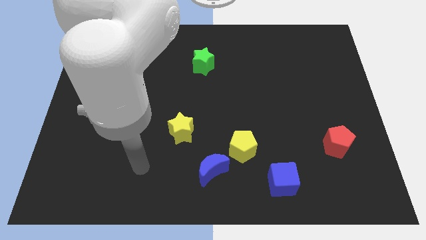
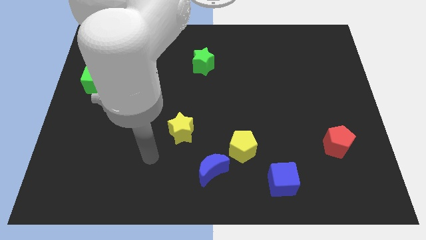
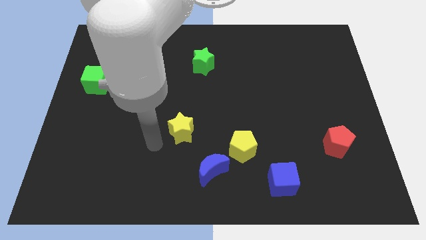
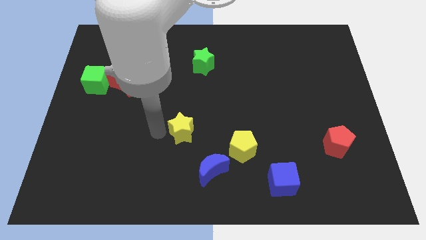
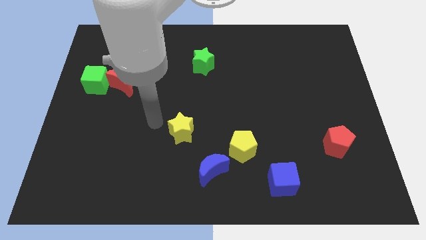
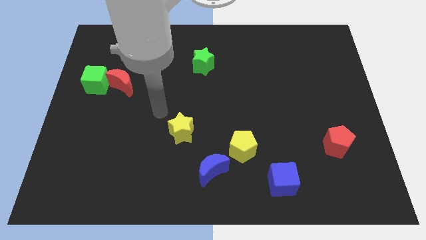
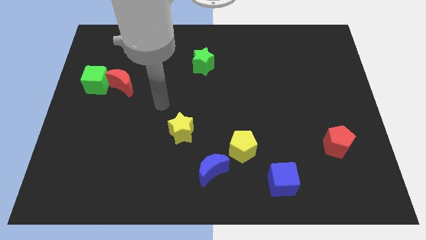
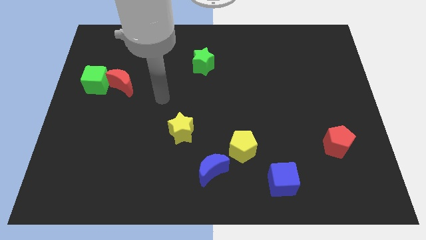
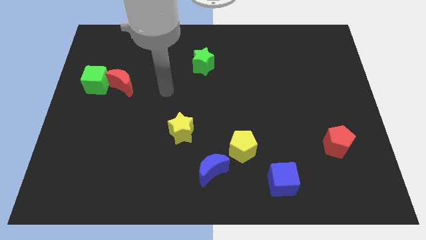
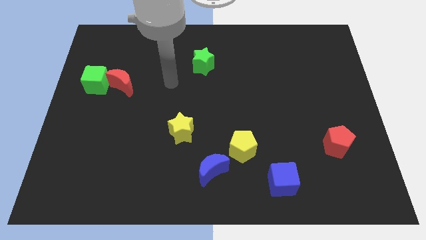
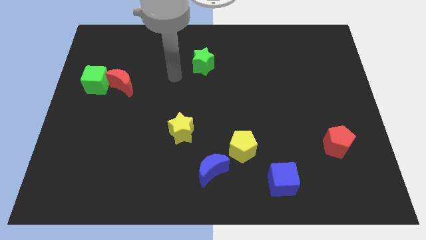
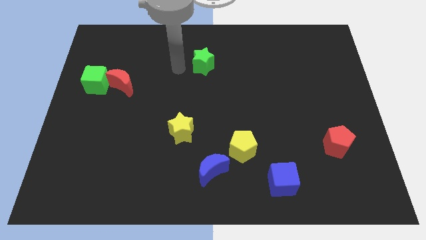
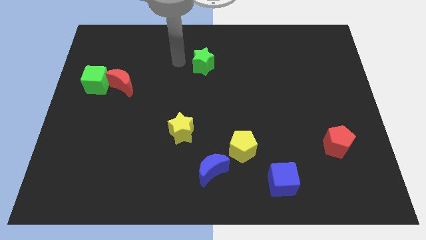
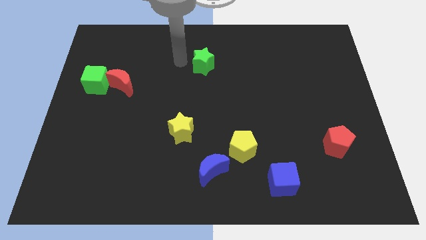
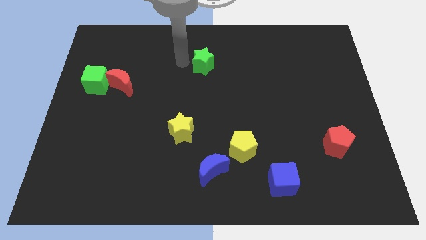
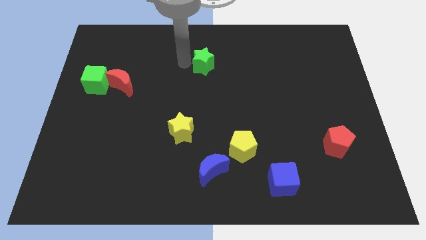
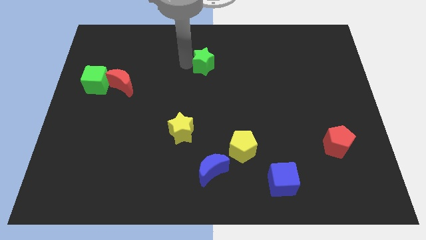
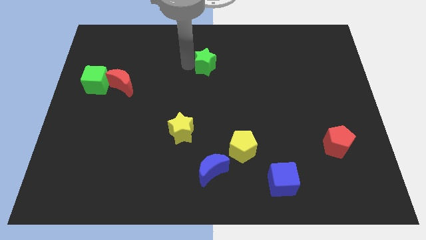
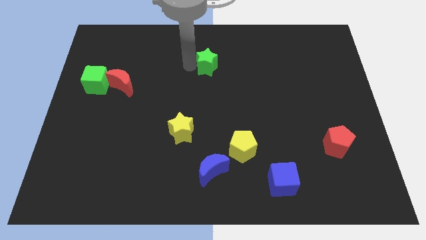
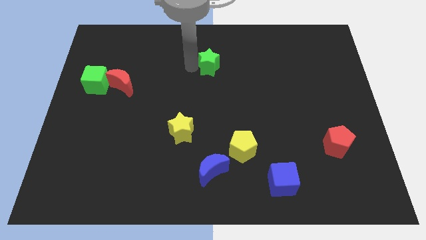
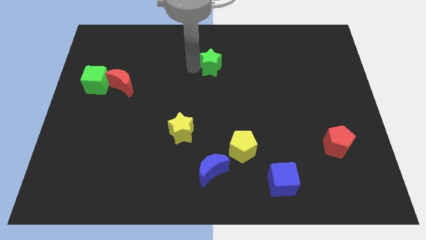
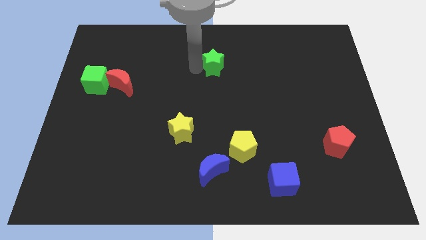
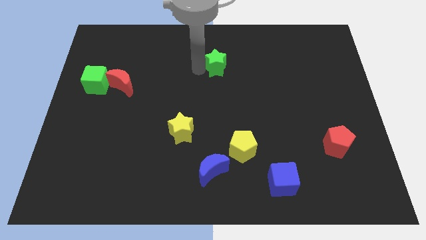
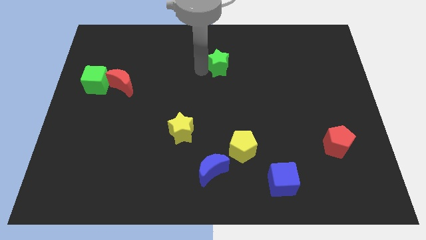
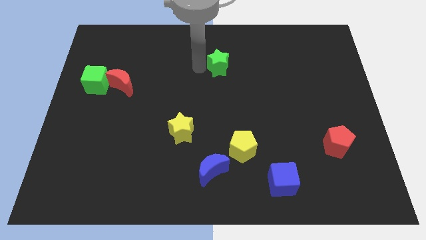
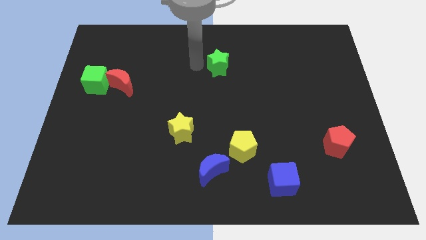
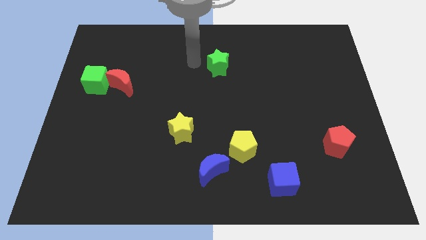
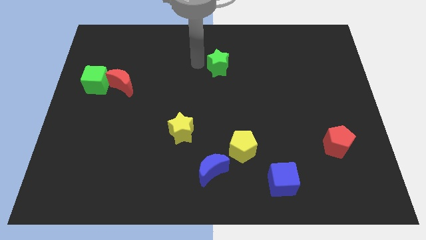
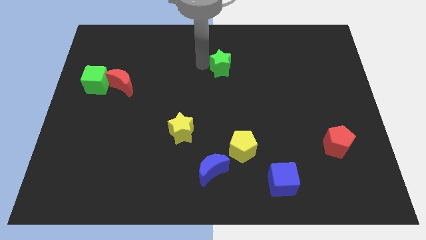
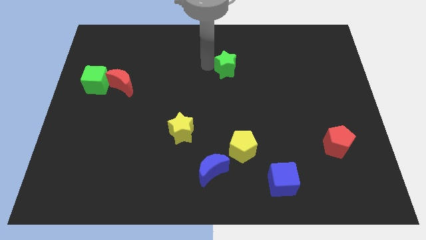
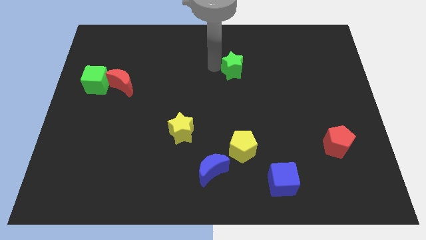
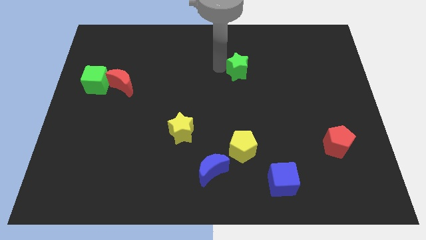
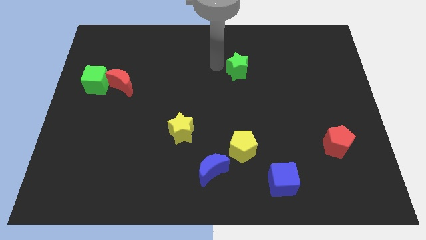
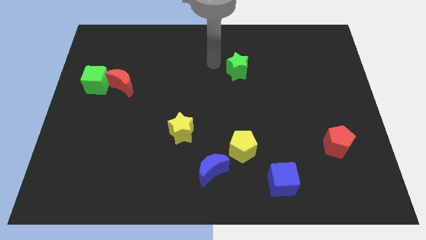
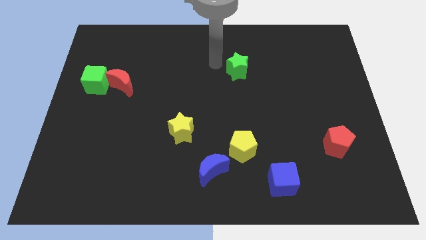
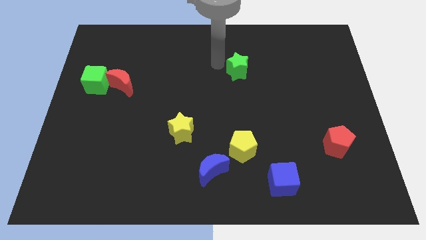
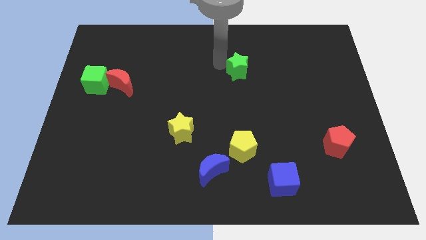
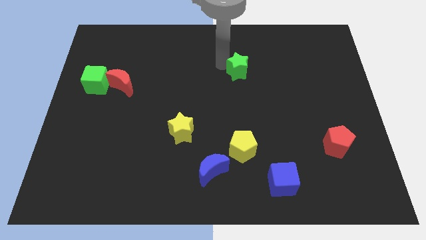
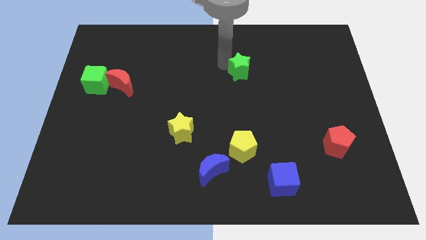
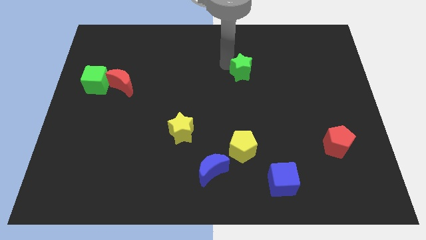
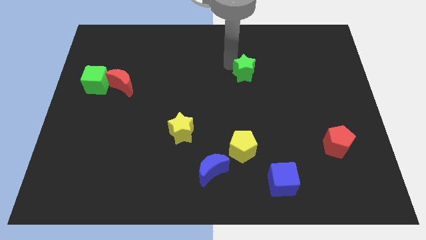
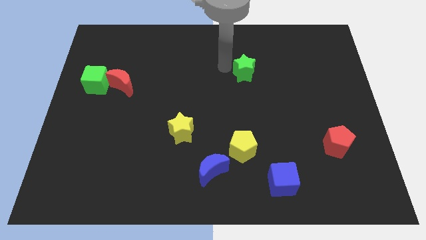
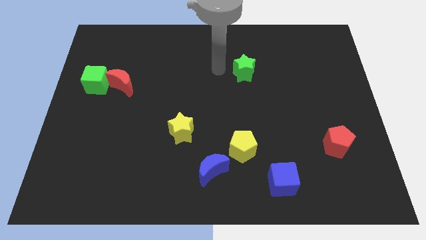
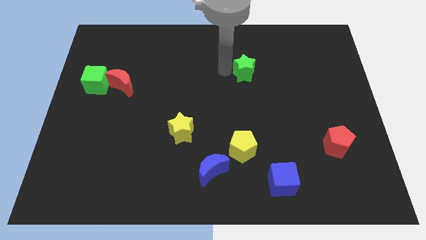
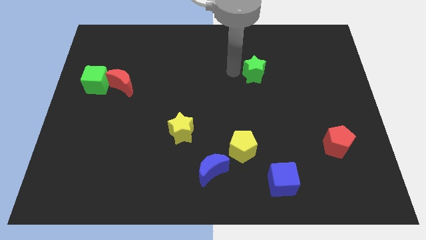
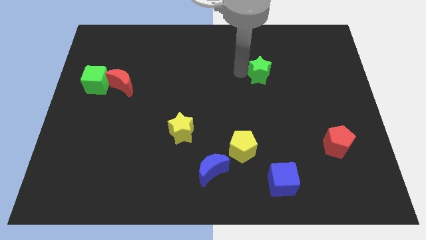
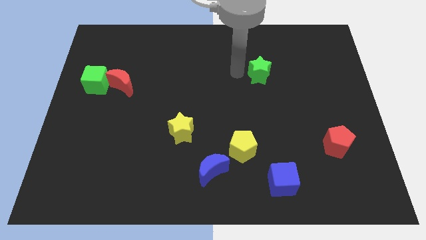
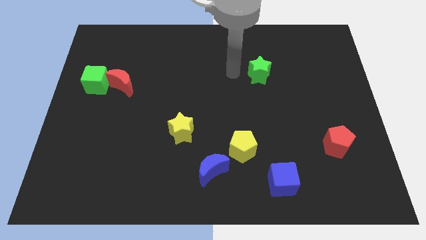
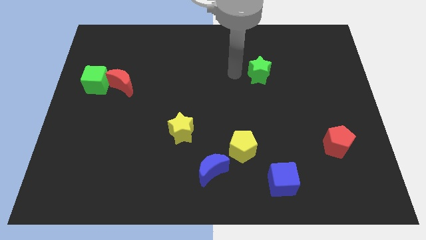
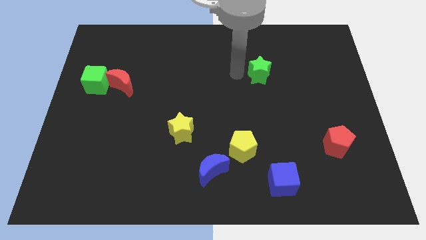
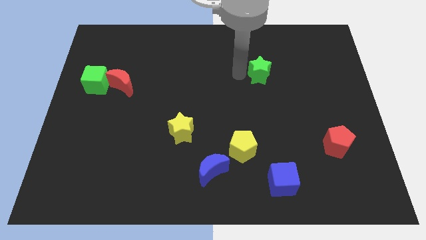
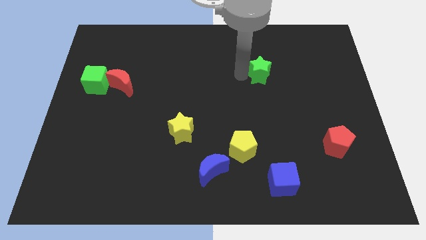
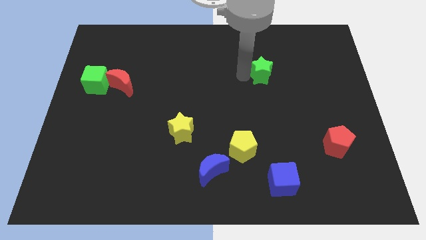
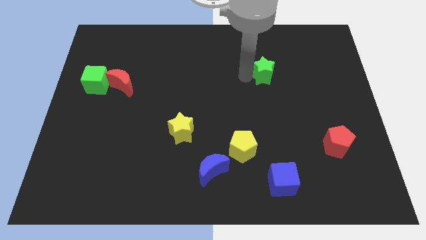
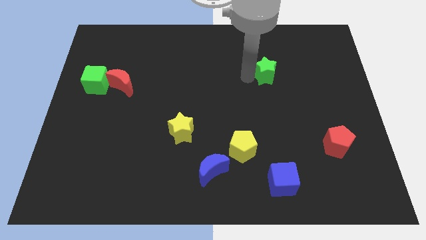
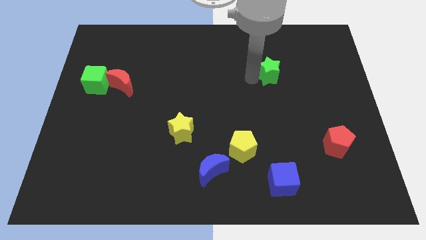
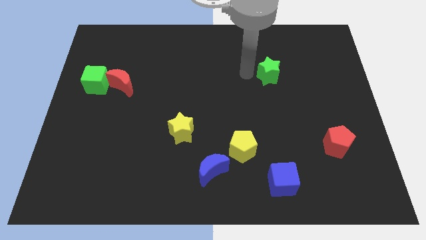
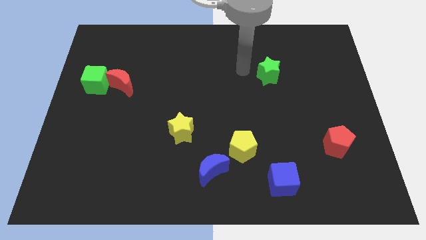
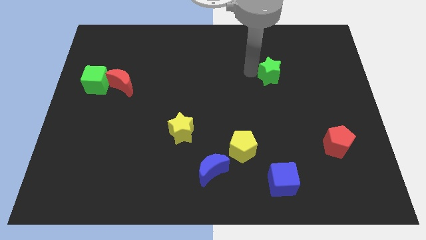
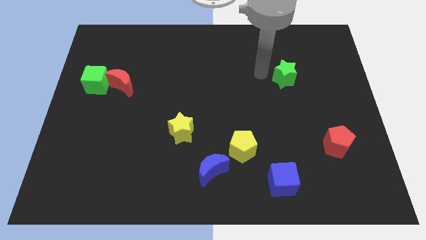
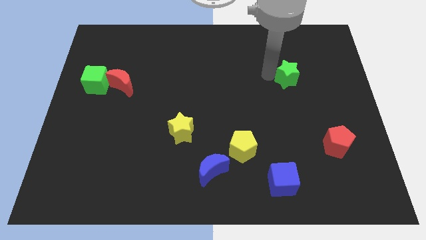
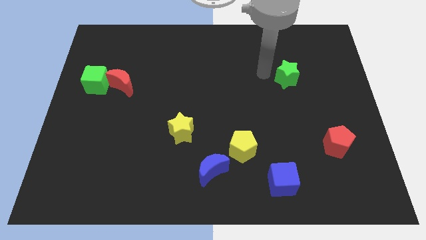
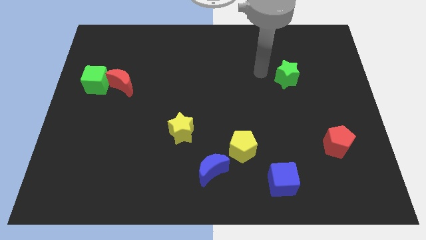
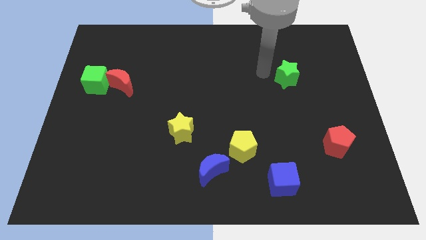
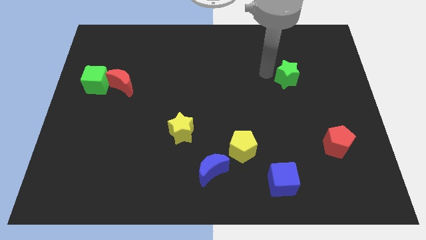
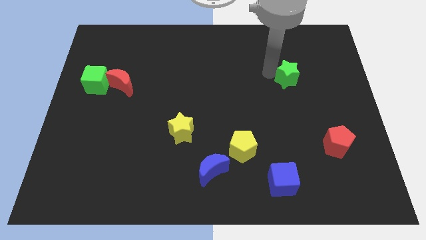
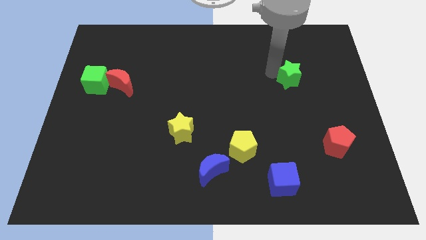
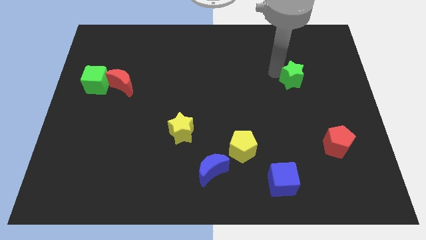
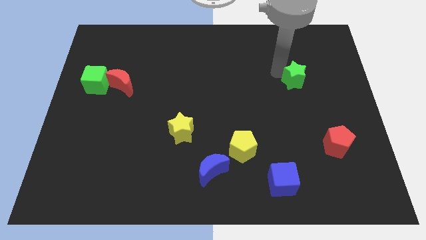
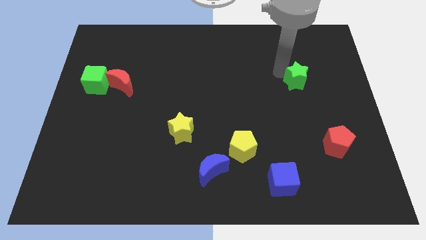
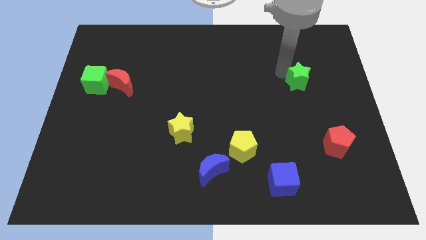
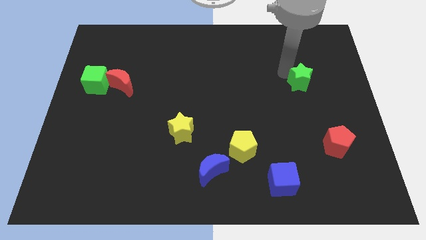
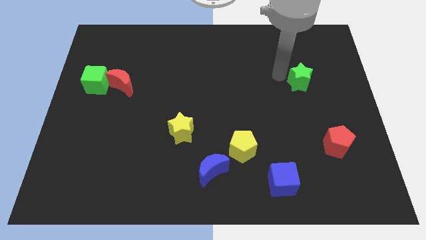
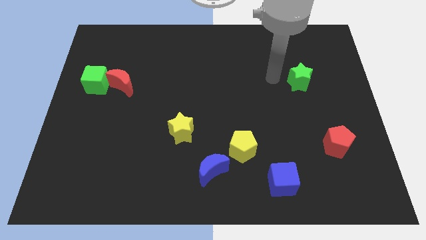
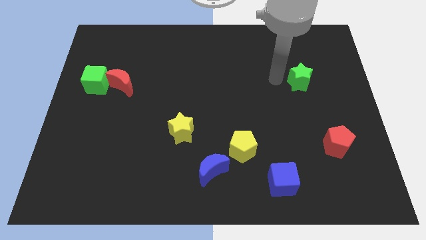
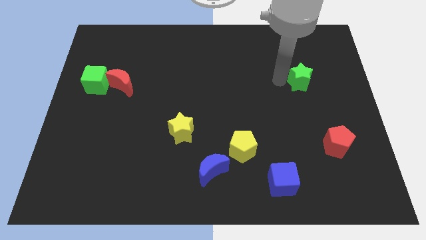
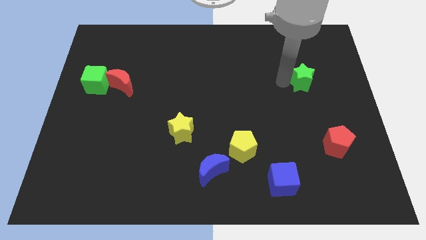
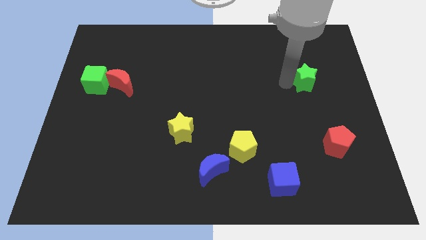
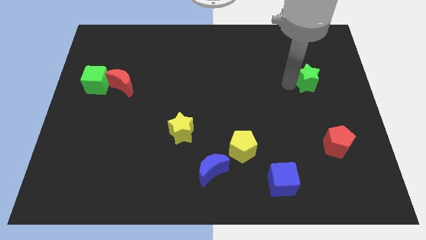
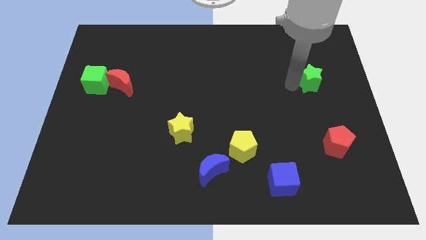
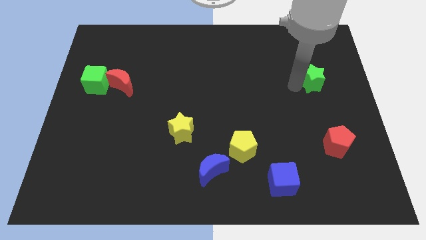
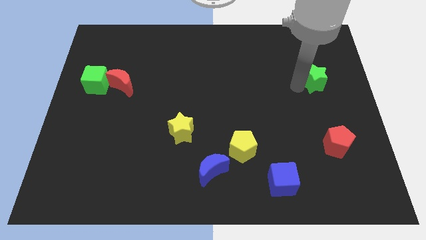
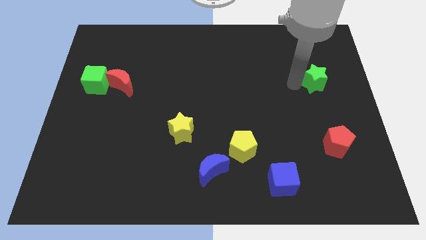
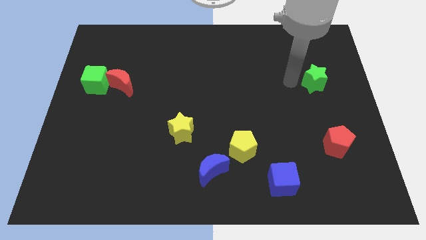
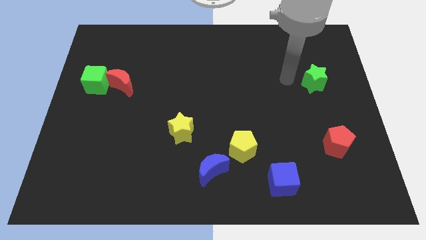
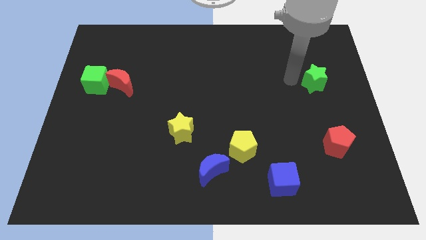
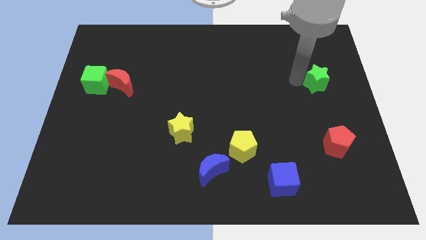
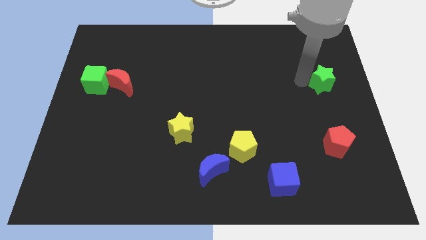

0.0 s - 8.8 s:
slide the green star to the right side of the board
